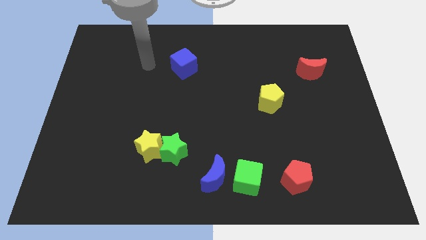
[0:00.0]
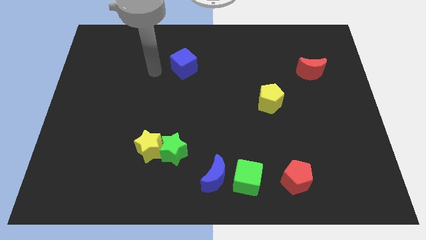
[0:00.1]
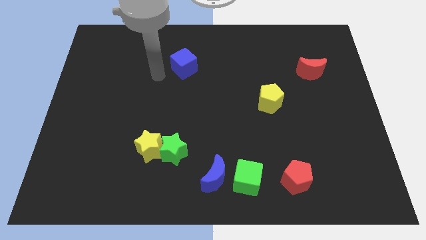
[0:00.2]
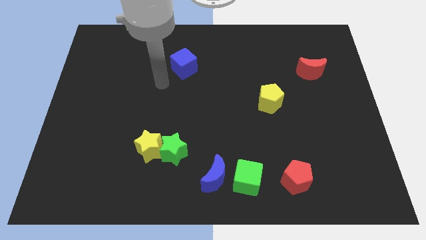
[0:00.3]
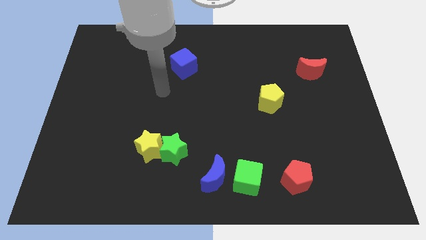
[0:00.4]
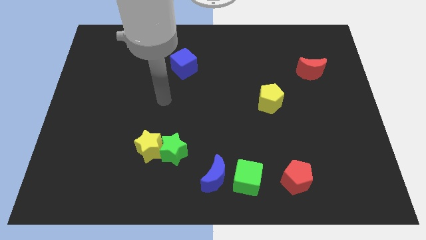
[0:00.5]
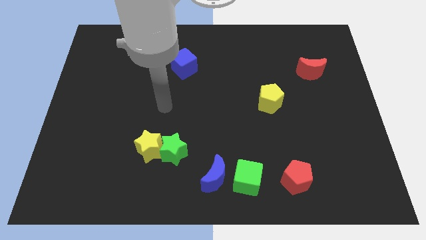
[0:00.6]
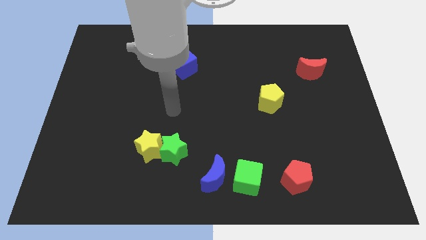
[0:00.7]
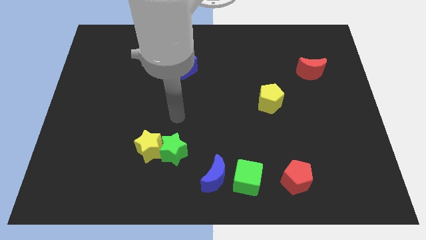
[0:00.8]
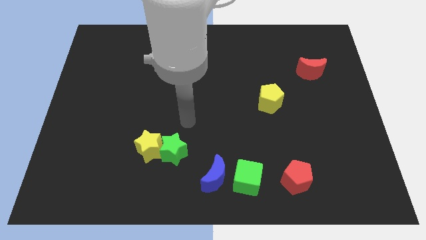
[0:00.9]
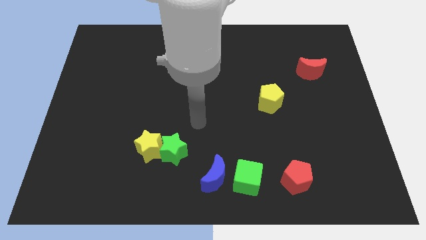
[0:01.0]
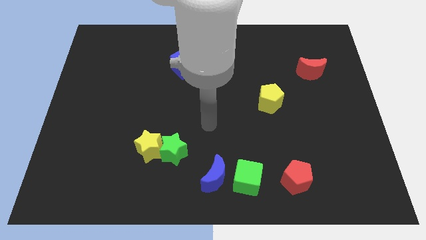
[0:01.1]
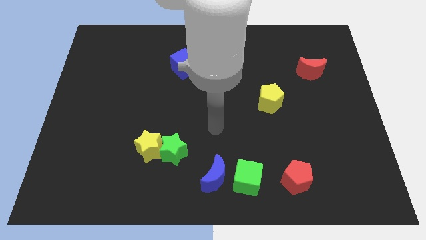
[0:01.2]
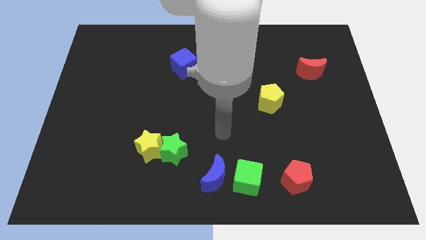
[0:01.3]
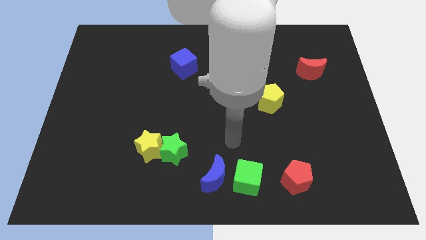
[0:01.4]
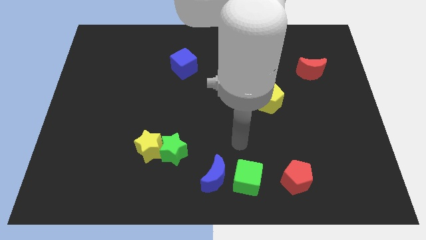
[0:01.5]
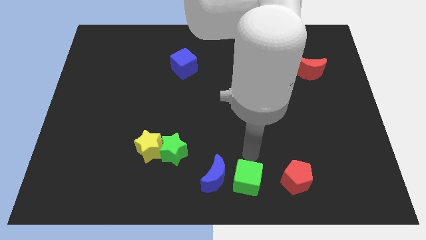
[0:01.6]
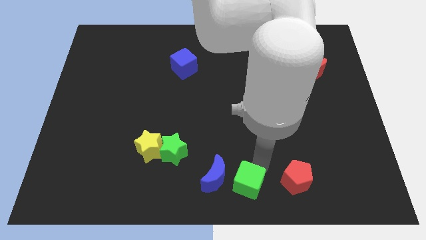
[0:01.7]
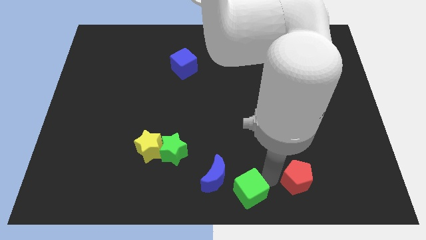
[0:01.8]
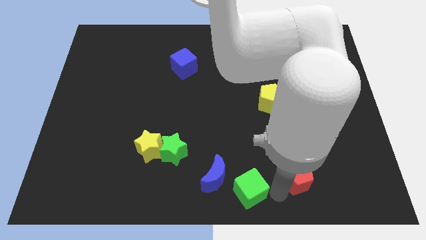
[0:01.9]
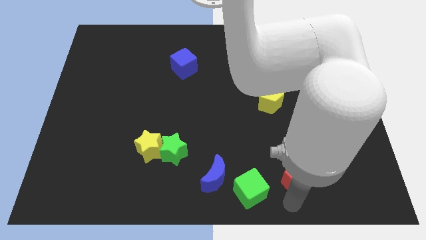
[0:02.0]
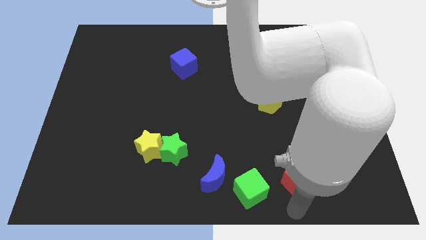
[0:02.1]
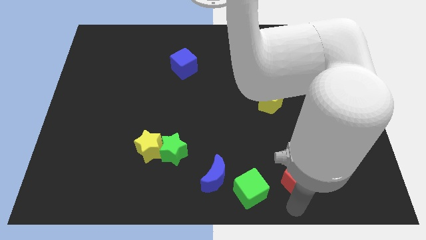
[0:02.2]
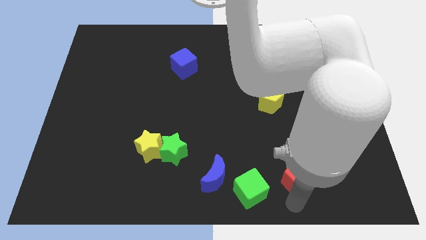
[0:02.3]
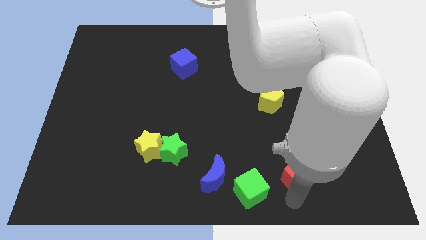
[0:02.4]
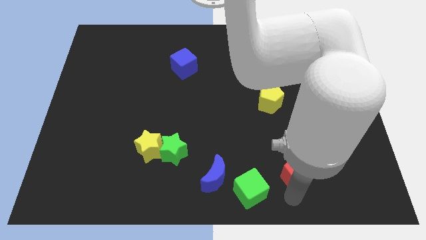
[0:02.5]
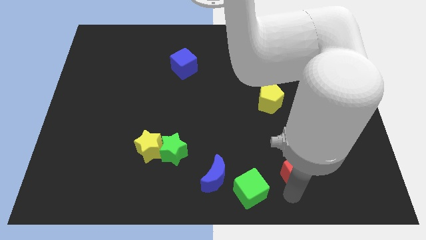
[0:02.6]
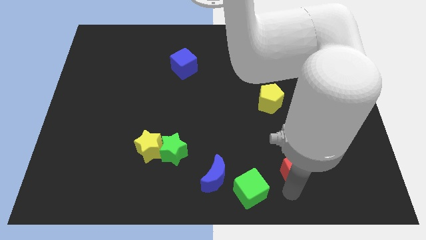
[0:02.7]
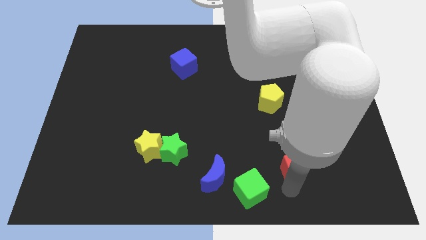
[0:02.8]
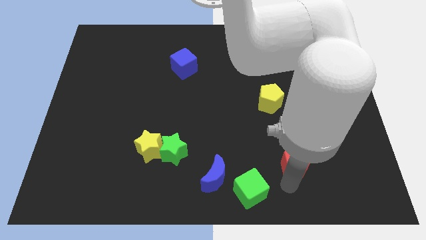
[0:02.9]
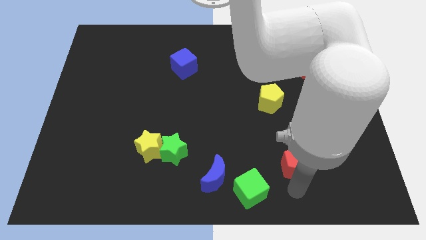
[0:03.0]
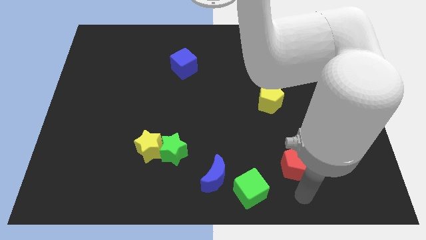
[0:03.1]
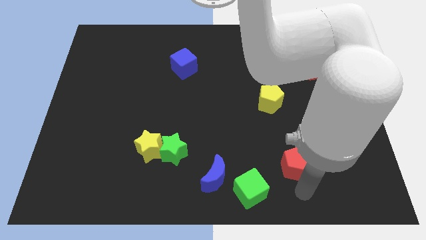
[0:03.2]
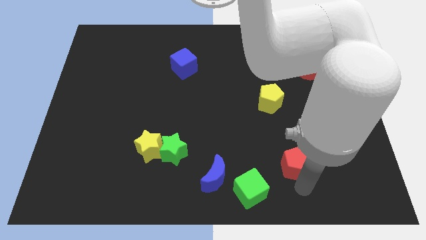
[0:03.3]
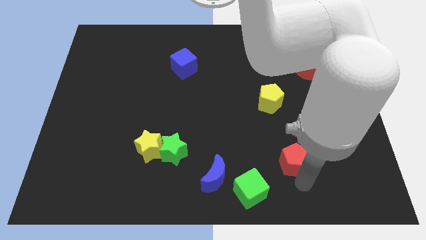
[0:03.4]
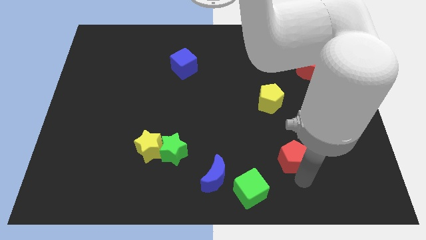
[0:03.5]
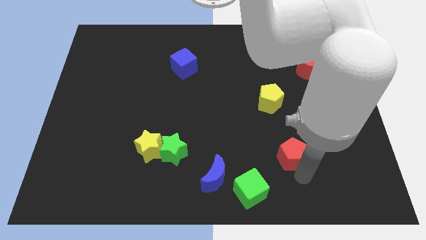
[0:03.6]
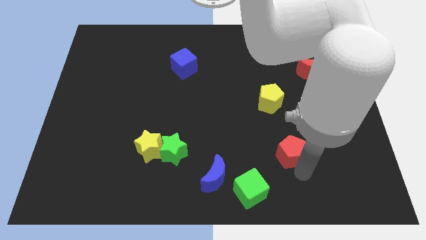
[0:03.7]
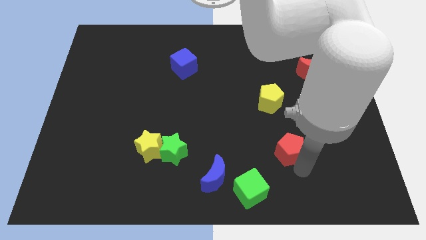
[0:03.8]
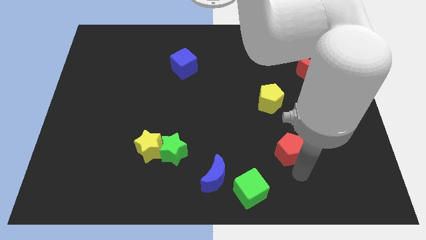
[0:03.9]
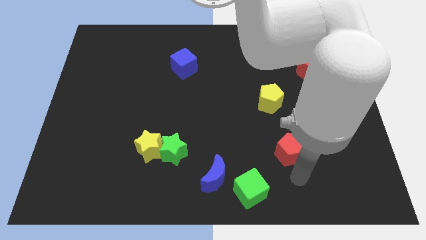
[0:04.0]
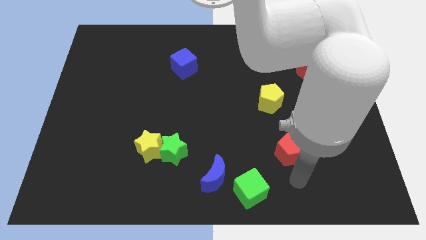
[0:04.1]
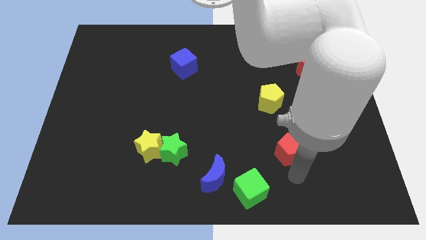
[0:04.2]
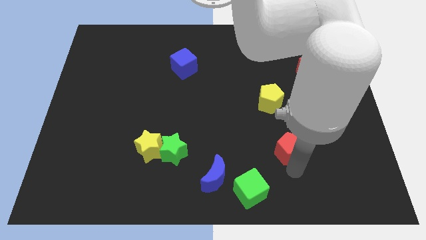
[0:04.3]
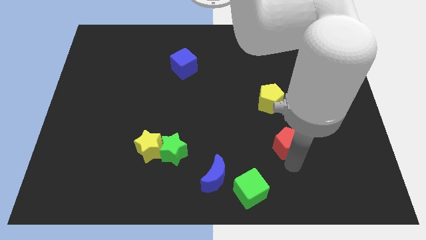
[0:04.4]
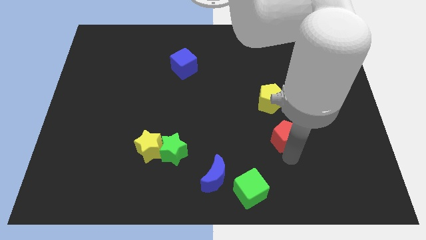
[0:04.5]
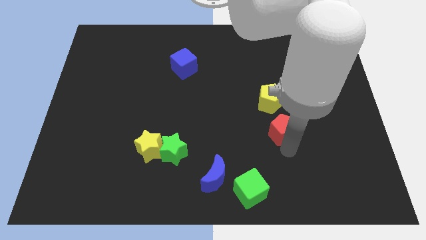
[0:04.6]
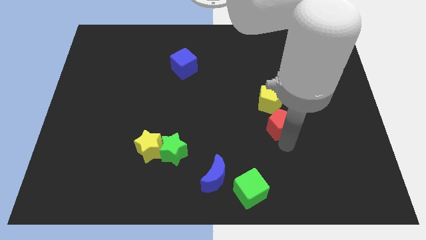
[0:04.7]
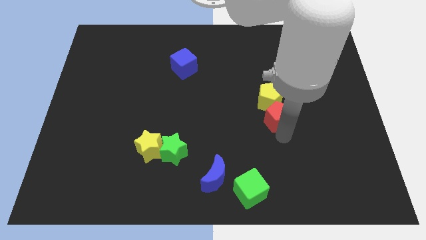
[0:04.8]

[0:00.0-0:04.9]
slide the red pentagon next to the yellow pentagon

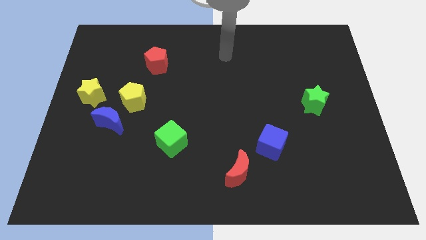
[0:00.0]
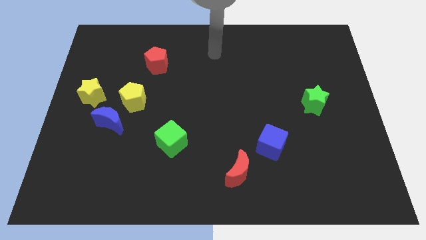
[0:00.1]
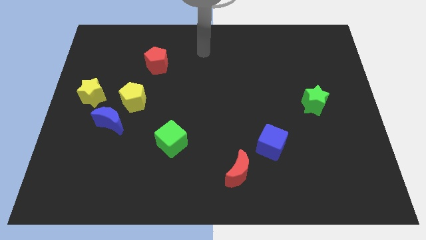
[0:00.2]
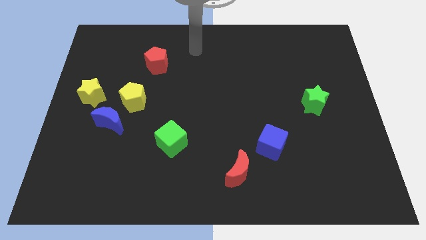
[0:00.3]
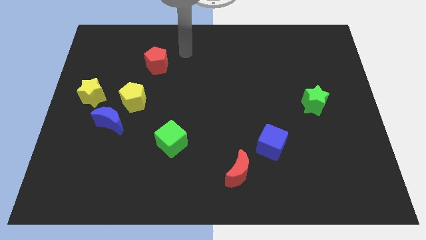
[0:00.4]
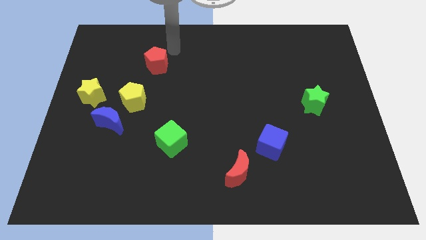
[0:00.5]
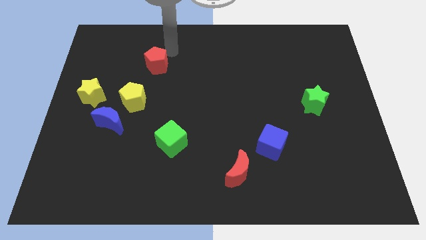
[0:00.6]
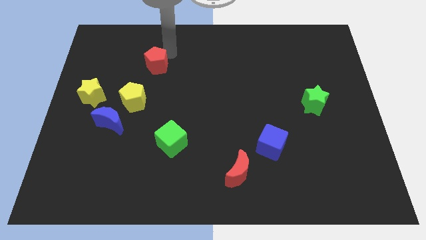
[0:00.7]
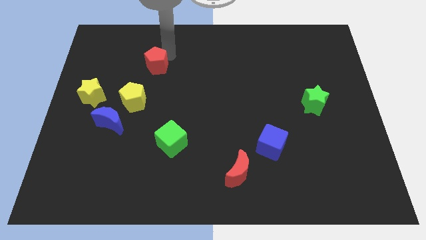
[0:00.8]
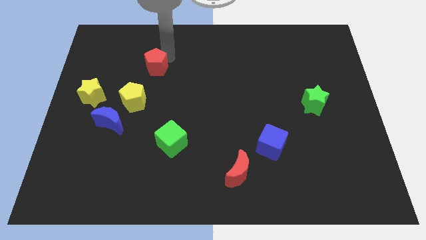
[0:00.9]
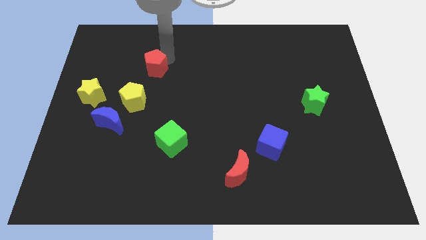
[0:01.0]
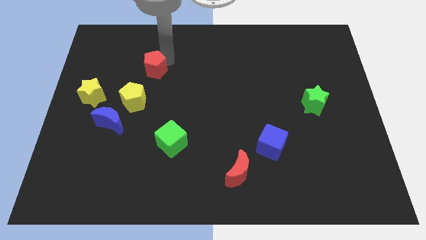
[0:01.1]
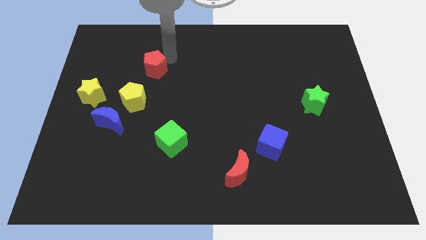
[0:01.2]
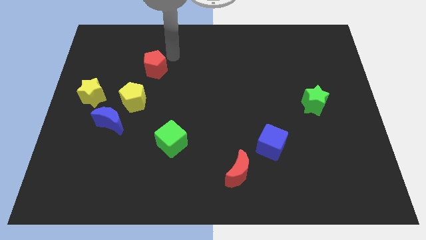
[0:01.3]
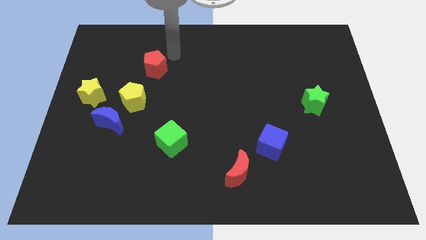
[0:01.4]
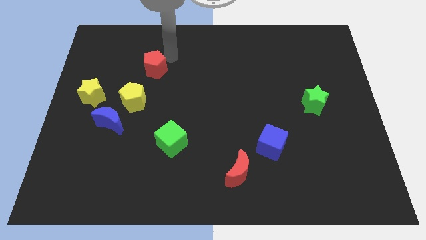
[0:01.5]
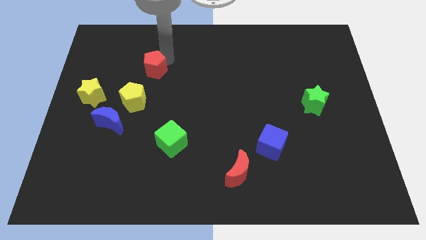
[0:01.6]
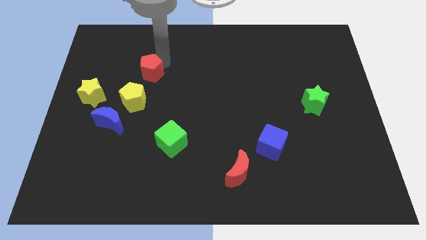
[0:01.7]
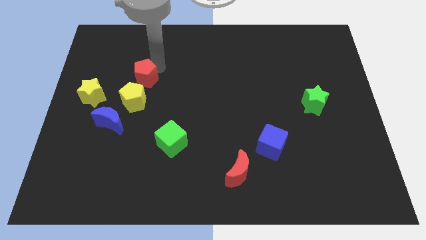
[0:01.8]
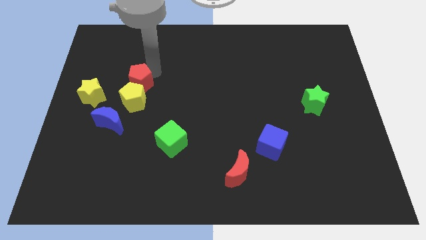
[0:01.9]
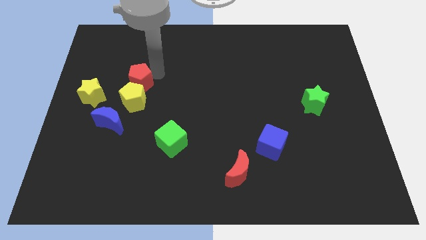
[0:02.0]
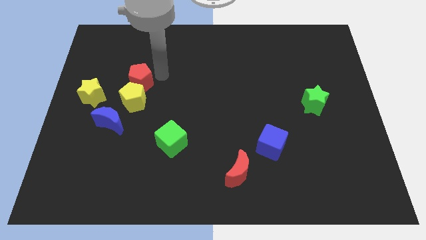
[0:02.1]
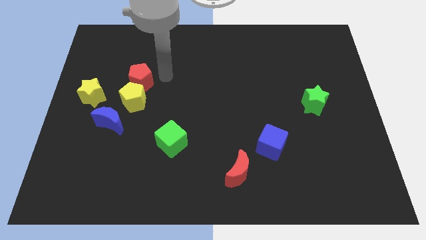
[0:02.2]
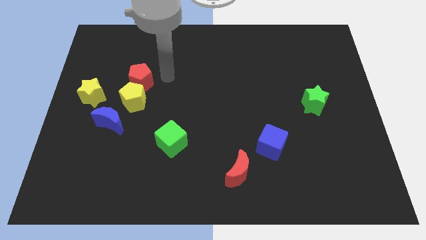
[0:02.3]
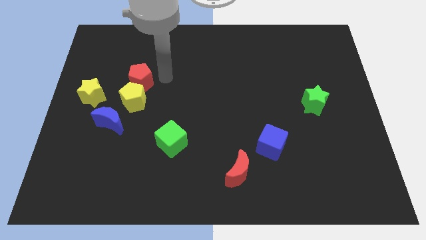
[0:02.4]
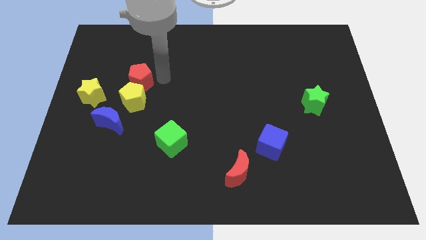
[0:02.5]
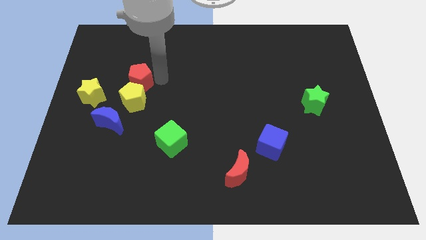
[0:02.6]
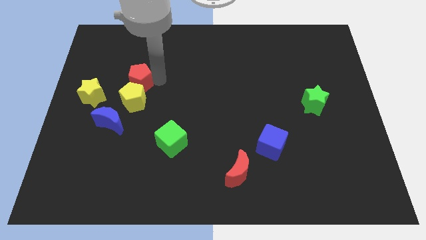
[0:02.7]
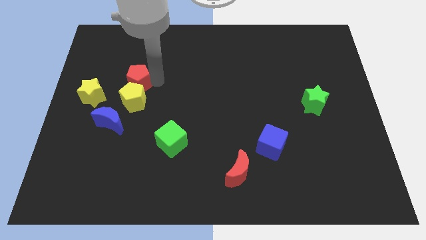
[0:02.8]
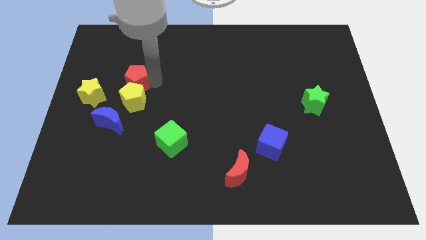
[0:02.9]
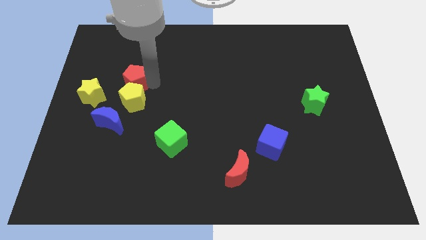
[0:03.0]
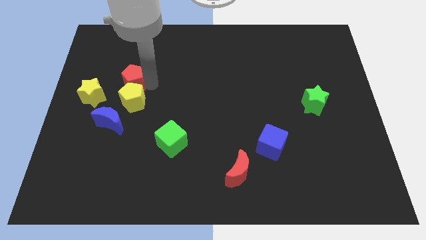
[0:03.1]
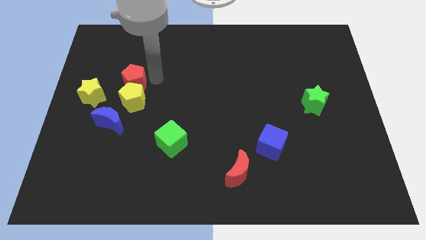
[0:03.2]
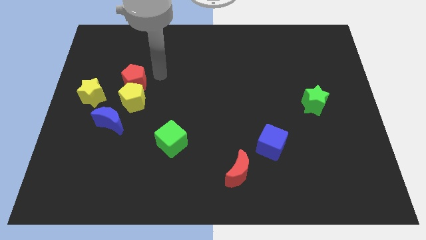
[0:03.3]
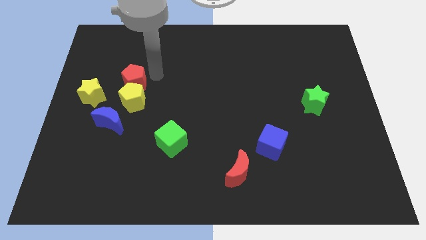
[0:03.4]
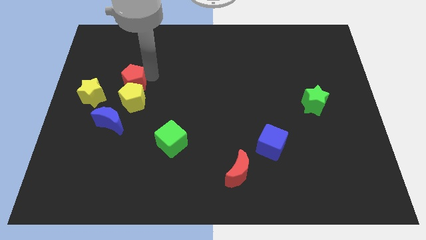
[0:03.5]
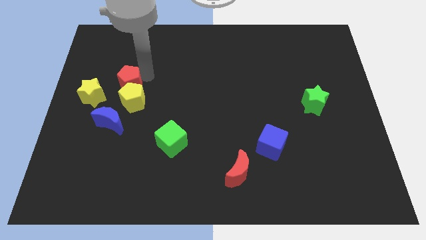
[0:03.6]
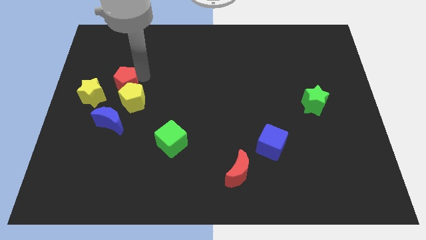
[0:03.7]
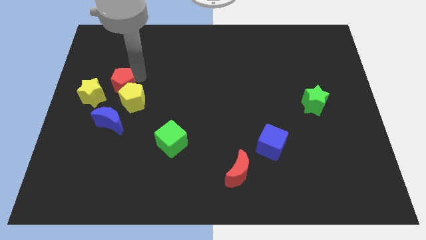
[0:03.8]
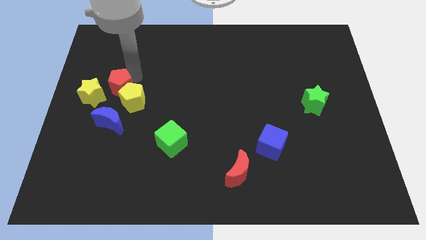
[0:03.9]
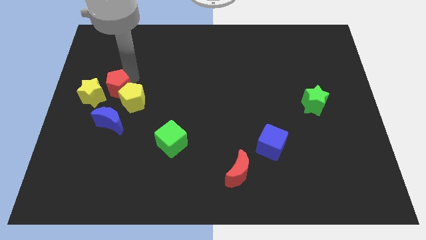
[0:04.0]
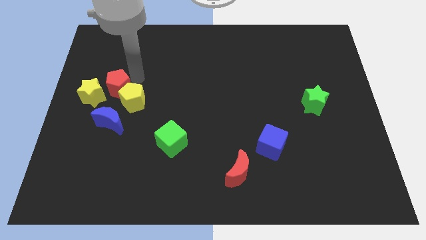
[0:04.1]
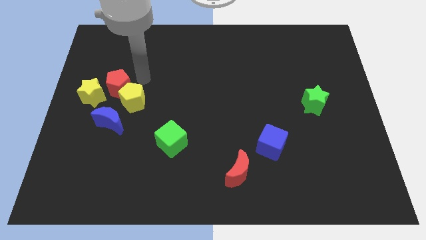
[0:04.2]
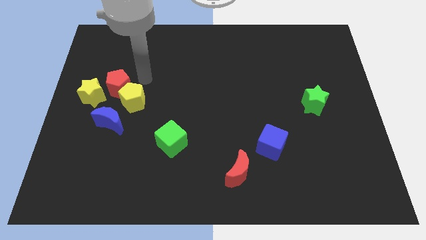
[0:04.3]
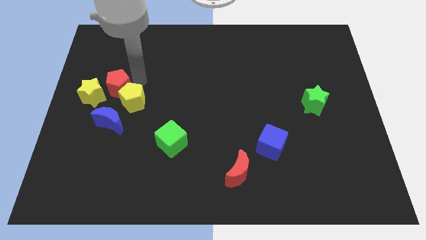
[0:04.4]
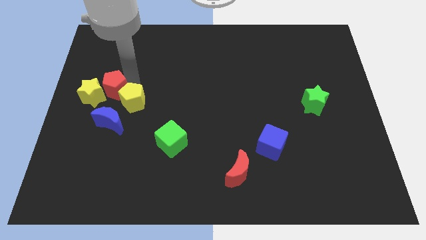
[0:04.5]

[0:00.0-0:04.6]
slide the red pentagon towards the yellow star
